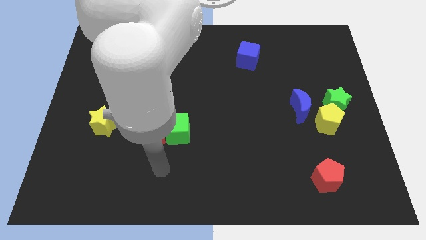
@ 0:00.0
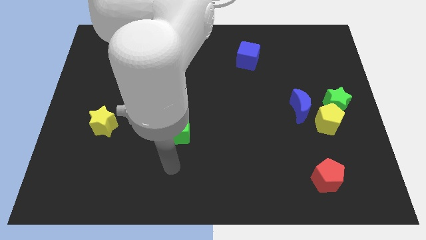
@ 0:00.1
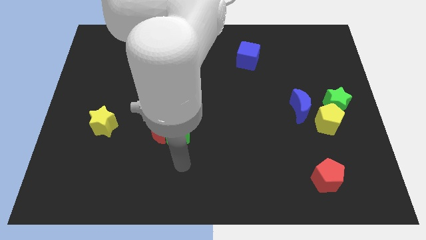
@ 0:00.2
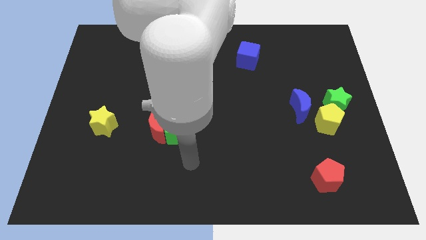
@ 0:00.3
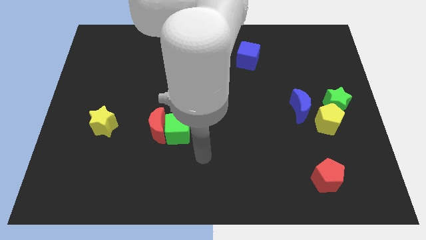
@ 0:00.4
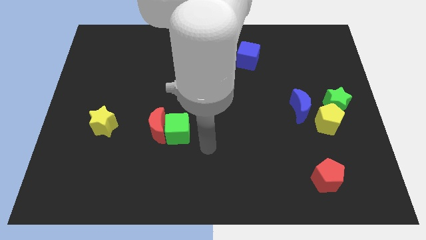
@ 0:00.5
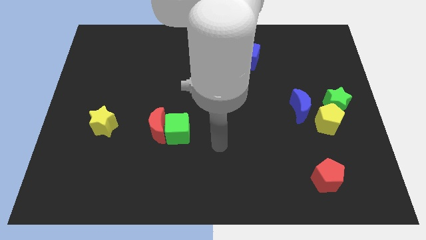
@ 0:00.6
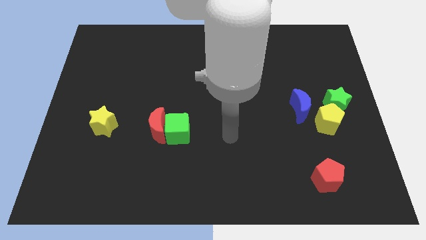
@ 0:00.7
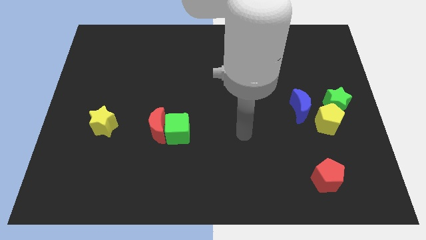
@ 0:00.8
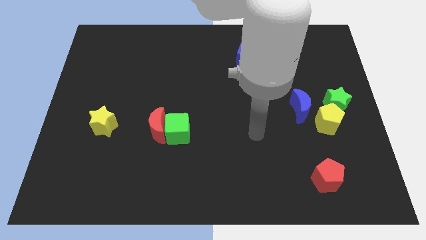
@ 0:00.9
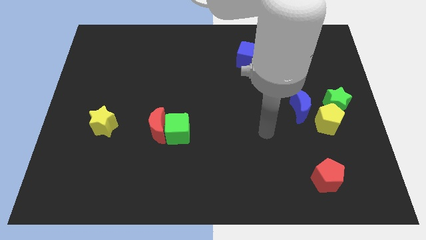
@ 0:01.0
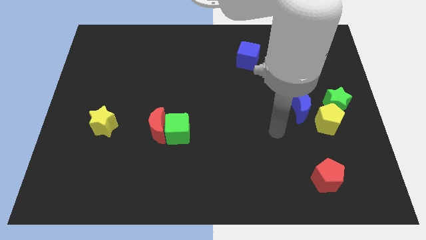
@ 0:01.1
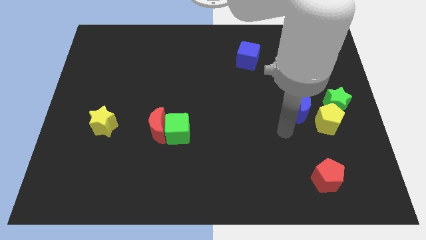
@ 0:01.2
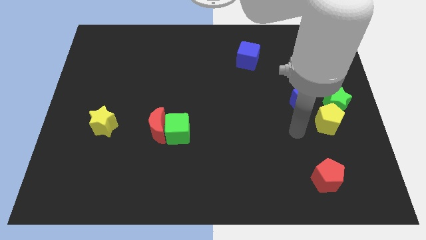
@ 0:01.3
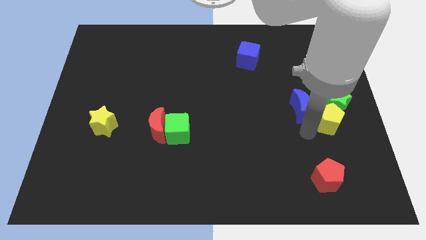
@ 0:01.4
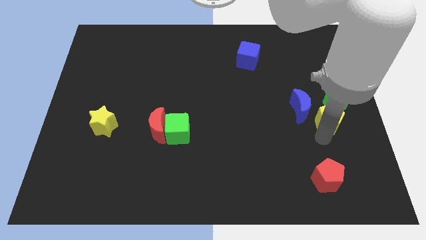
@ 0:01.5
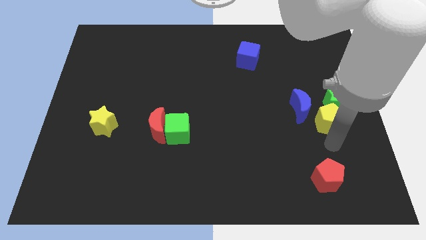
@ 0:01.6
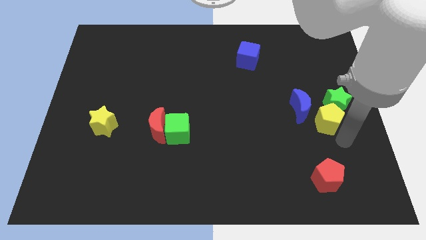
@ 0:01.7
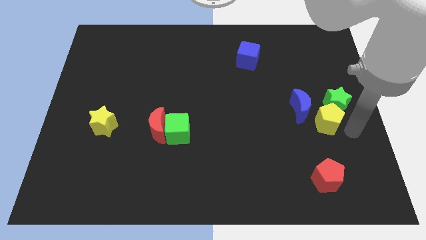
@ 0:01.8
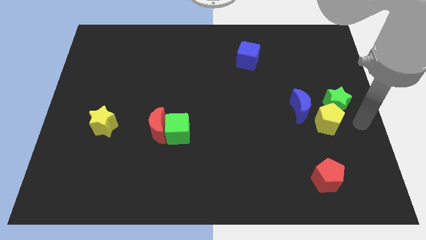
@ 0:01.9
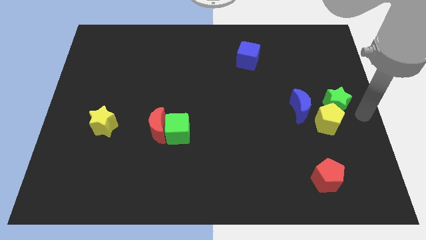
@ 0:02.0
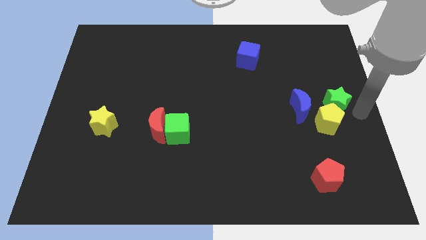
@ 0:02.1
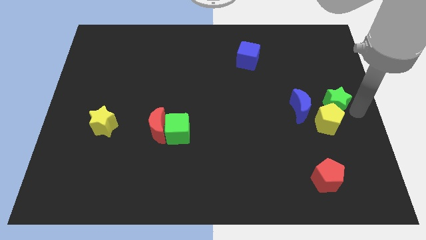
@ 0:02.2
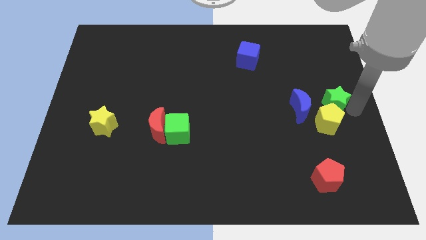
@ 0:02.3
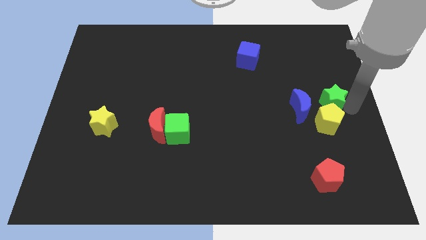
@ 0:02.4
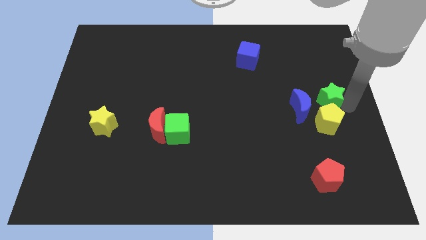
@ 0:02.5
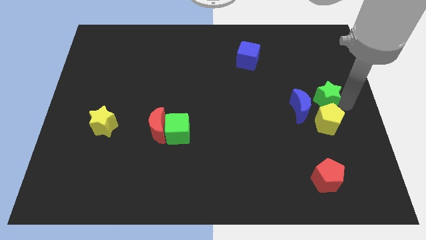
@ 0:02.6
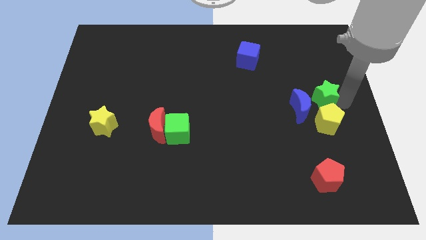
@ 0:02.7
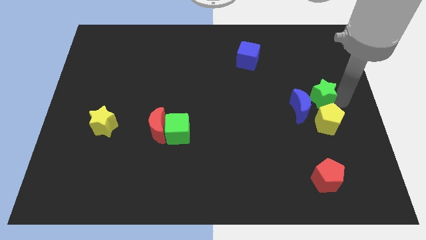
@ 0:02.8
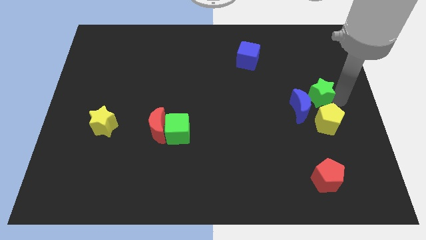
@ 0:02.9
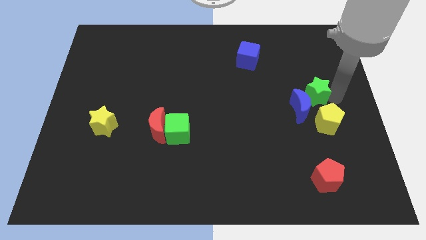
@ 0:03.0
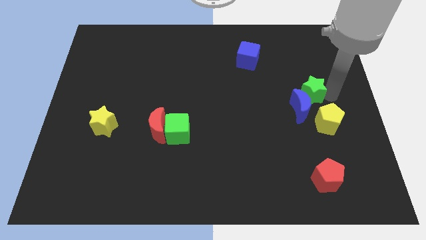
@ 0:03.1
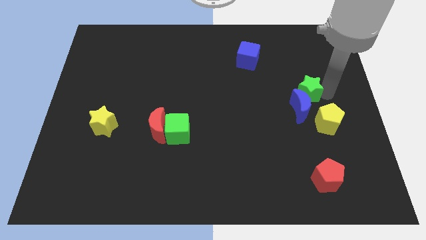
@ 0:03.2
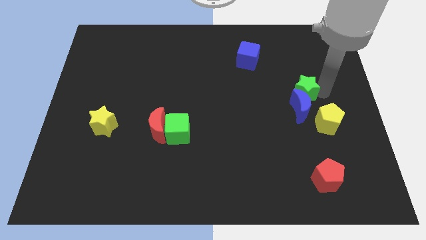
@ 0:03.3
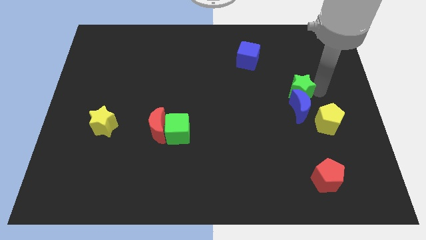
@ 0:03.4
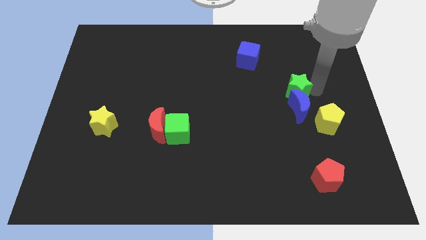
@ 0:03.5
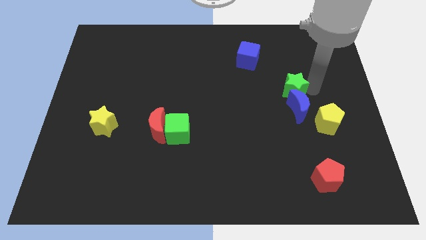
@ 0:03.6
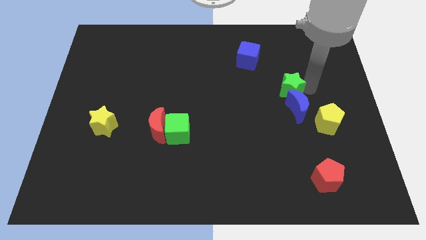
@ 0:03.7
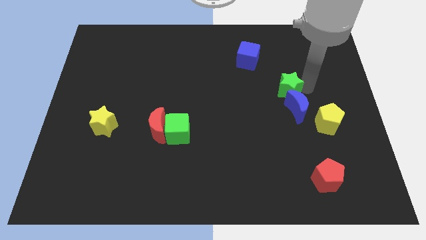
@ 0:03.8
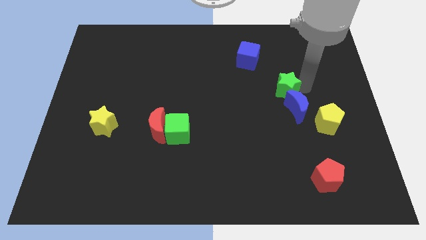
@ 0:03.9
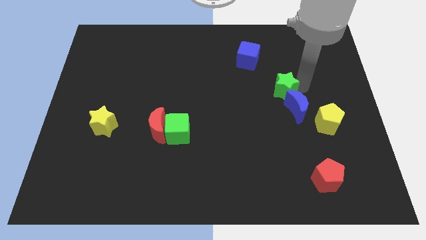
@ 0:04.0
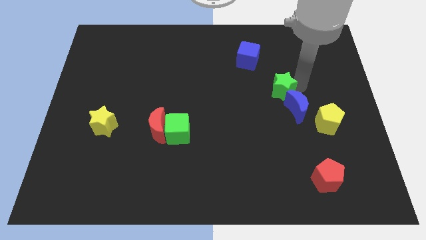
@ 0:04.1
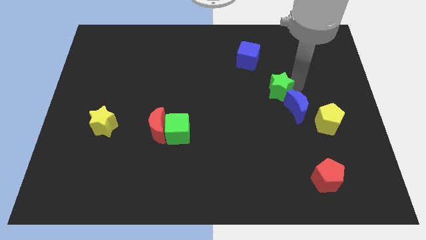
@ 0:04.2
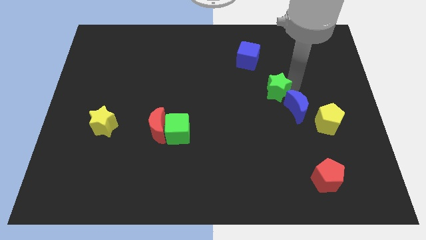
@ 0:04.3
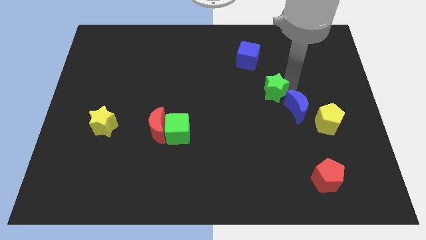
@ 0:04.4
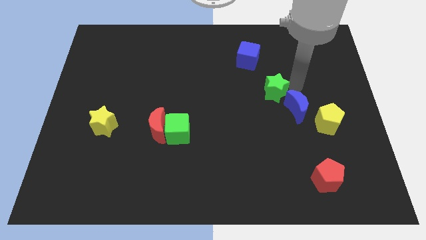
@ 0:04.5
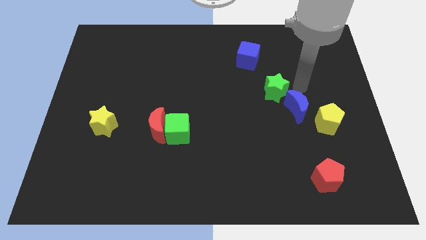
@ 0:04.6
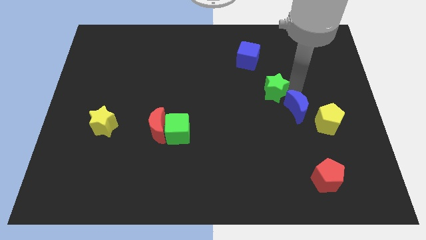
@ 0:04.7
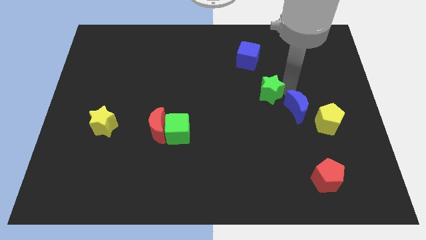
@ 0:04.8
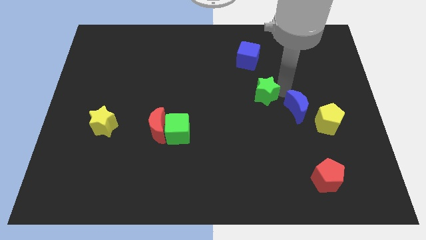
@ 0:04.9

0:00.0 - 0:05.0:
push the green star to the center of the board

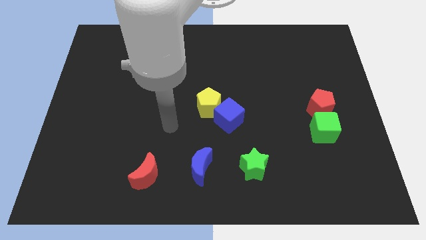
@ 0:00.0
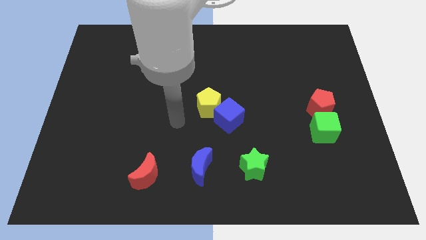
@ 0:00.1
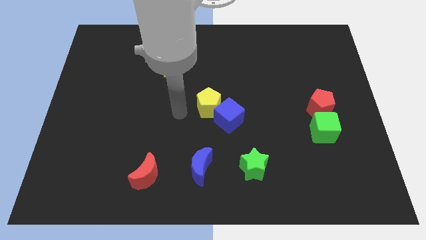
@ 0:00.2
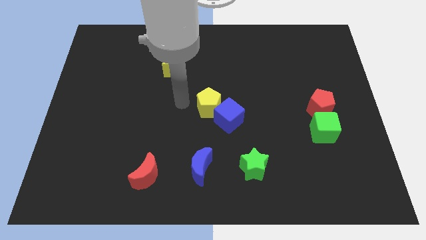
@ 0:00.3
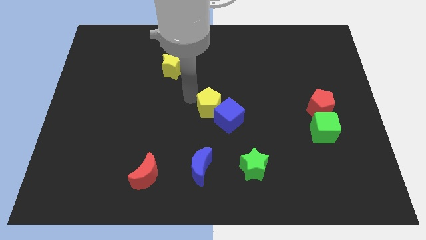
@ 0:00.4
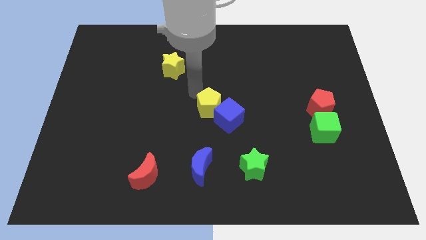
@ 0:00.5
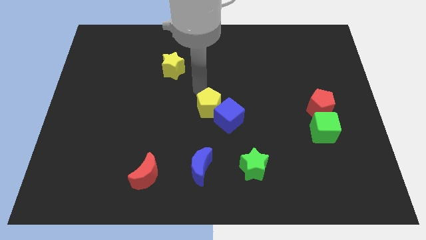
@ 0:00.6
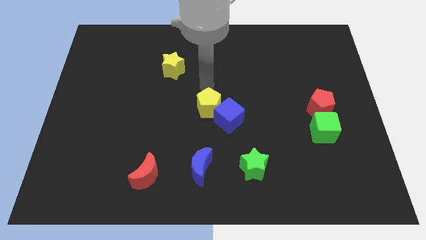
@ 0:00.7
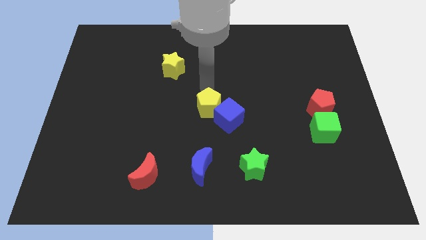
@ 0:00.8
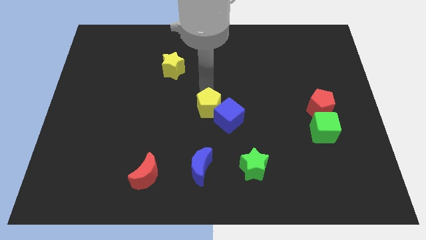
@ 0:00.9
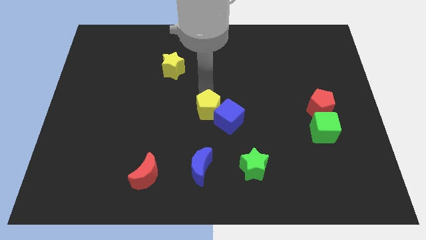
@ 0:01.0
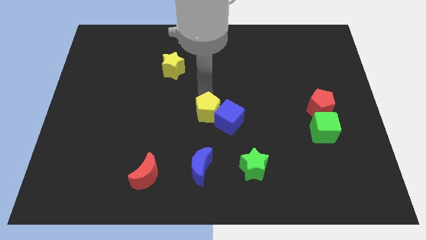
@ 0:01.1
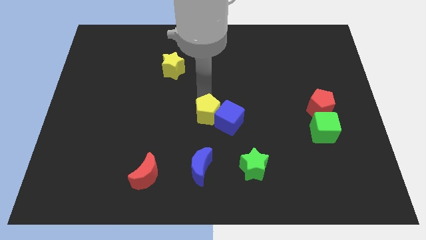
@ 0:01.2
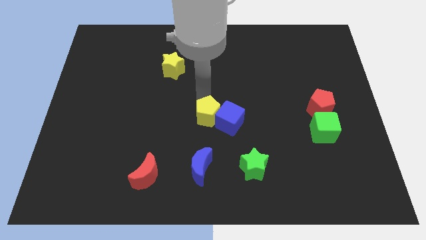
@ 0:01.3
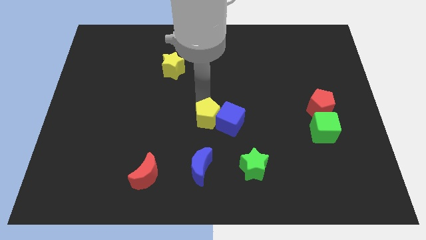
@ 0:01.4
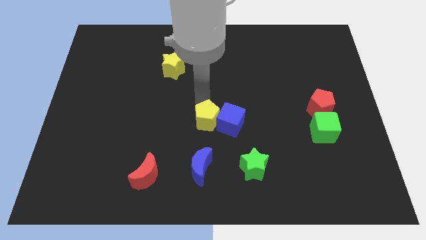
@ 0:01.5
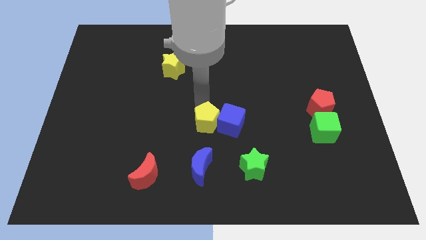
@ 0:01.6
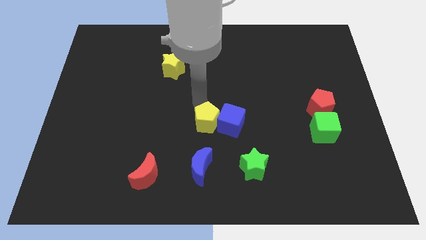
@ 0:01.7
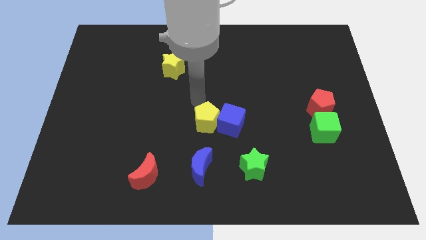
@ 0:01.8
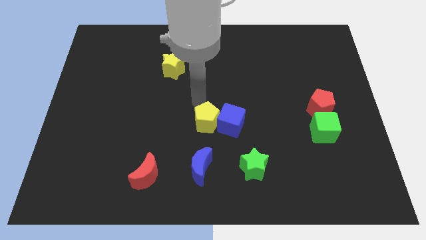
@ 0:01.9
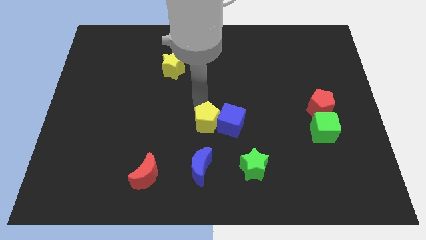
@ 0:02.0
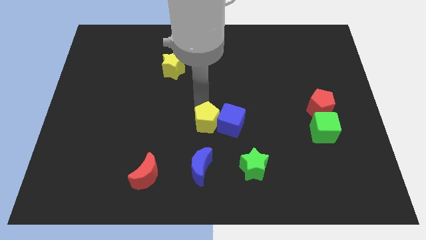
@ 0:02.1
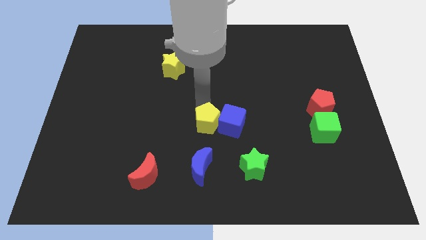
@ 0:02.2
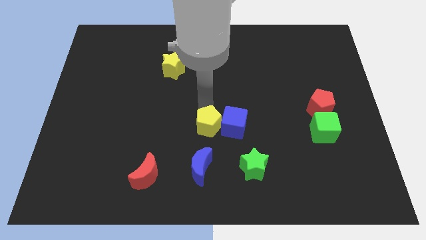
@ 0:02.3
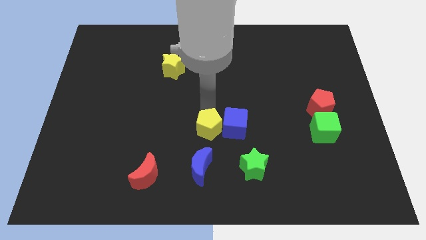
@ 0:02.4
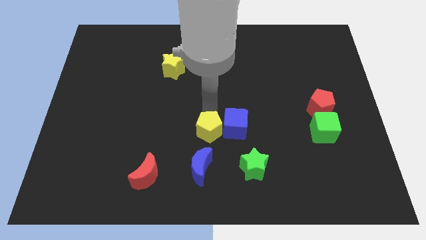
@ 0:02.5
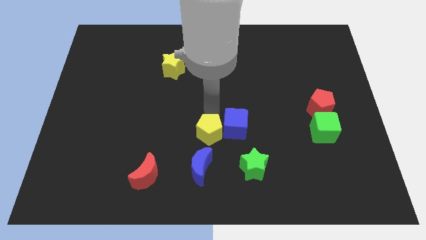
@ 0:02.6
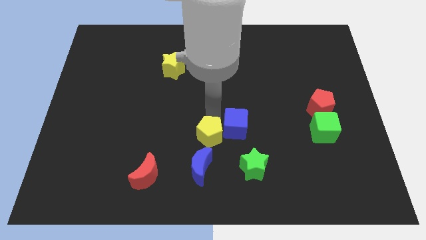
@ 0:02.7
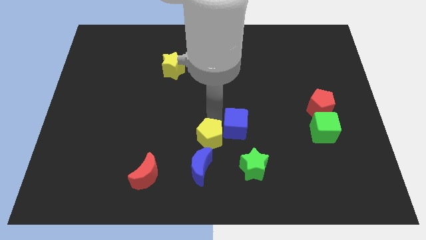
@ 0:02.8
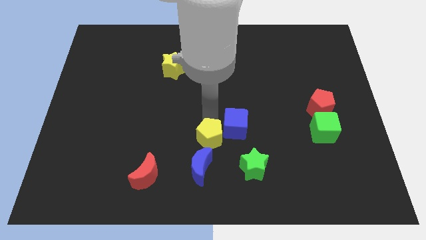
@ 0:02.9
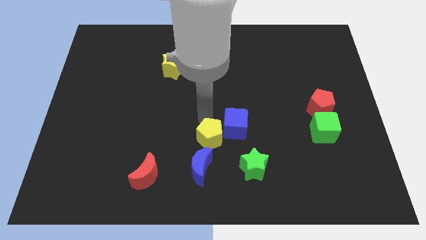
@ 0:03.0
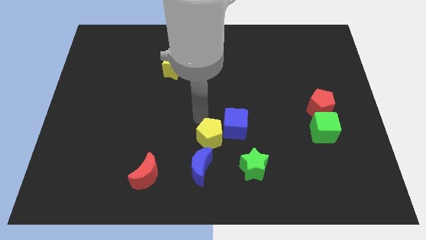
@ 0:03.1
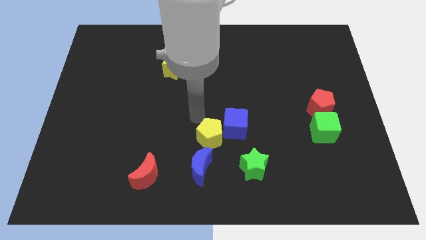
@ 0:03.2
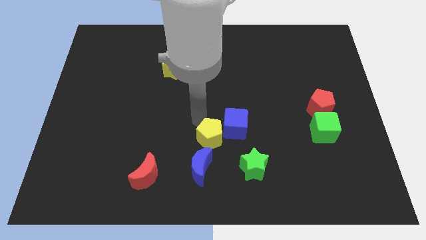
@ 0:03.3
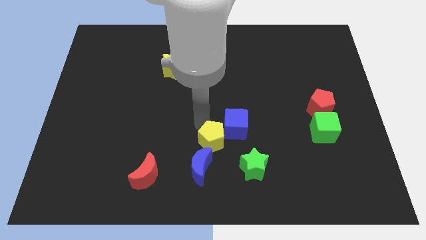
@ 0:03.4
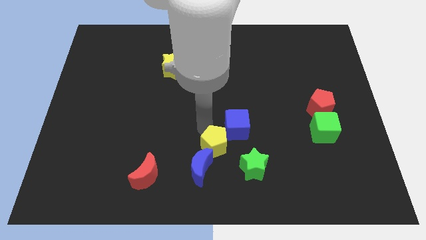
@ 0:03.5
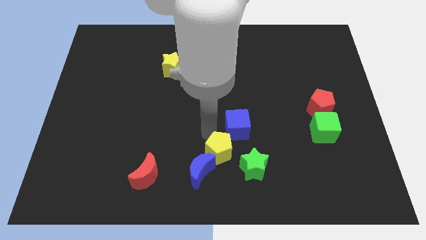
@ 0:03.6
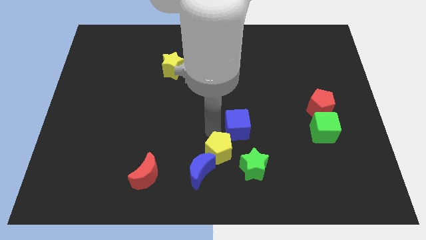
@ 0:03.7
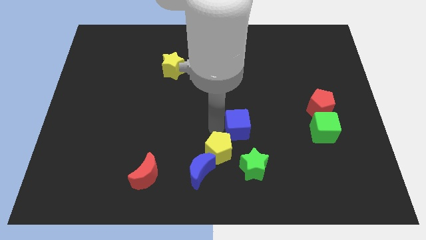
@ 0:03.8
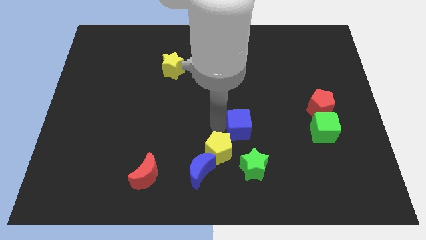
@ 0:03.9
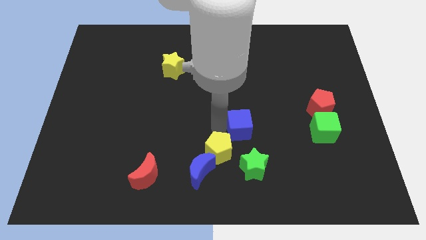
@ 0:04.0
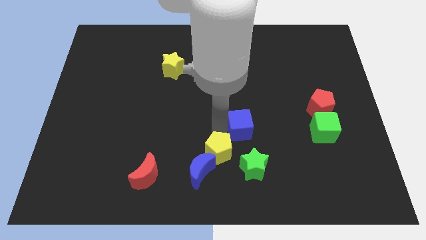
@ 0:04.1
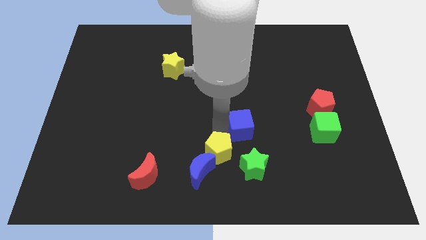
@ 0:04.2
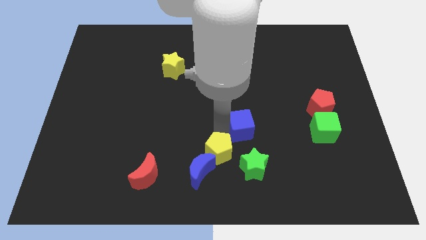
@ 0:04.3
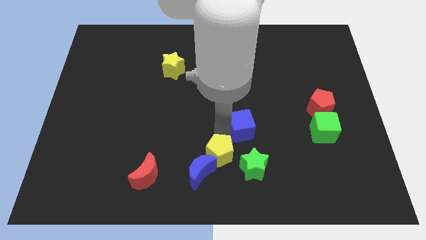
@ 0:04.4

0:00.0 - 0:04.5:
put the yellow pentagon to the bottom
